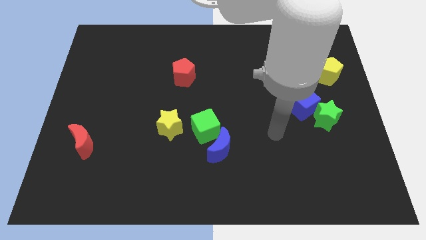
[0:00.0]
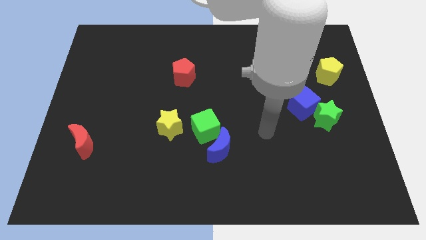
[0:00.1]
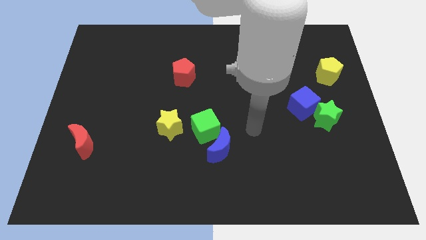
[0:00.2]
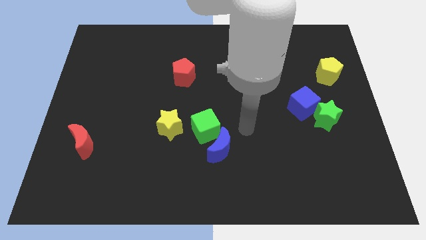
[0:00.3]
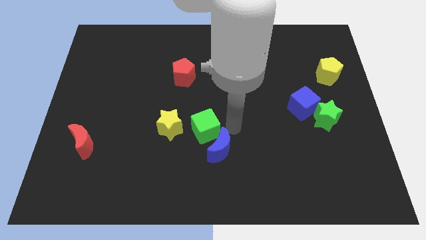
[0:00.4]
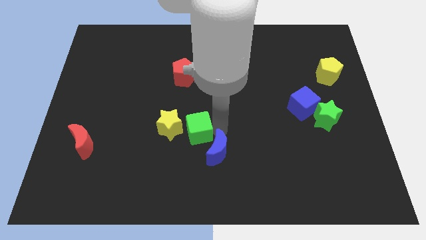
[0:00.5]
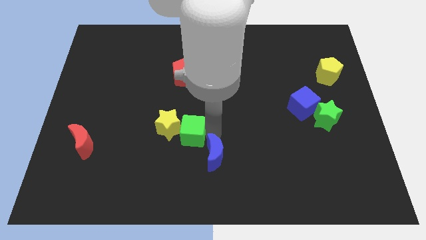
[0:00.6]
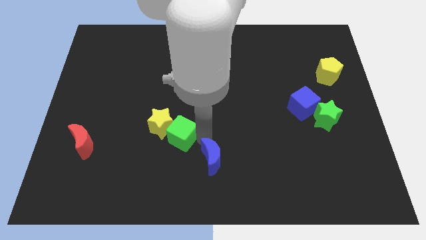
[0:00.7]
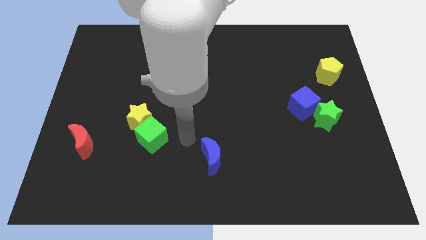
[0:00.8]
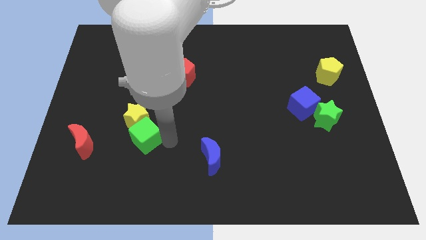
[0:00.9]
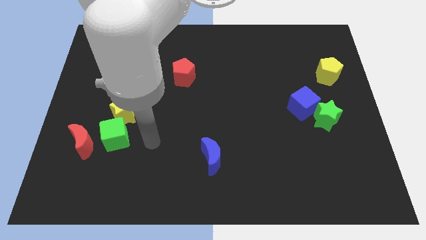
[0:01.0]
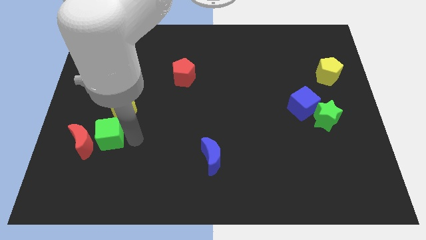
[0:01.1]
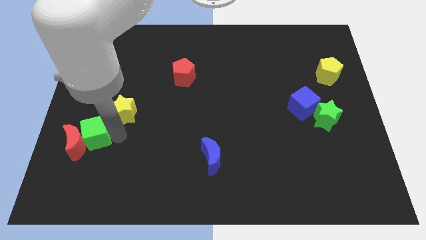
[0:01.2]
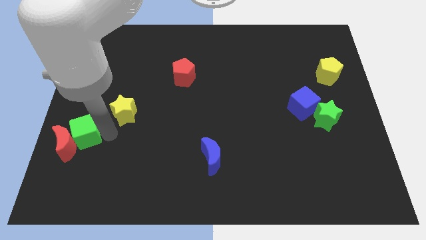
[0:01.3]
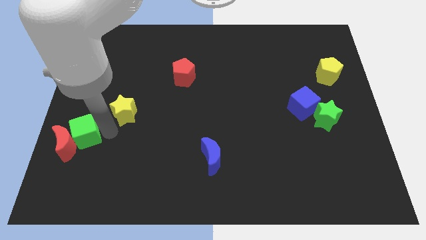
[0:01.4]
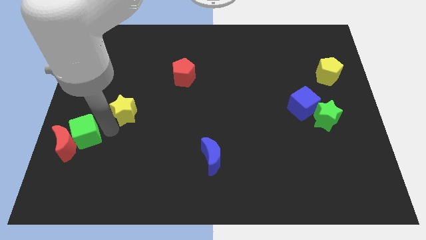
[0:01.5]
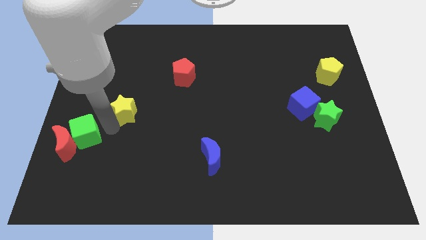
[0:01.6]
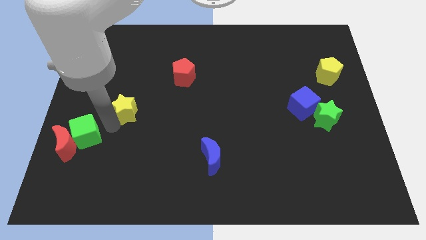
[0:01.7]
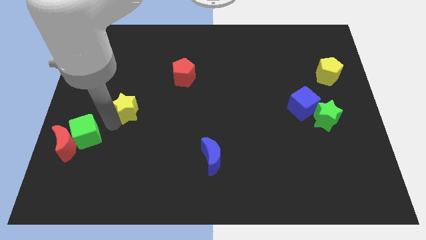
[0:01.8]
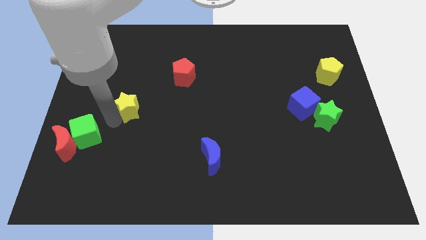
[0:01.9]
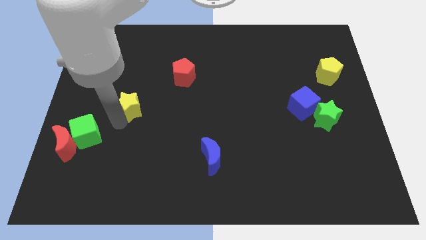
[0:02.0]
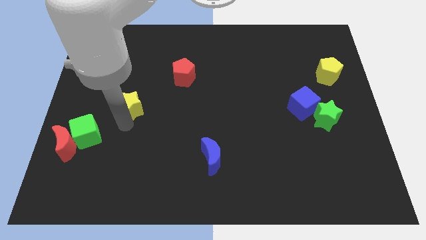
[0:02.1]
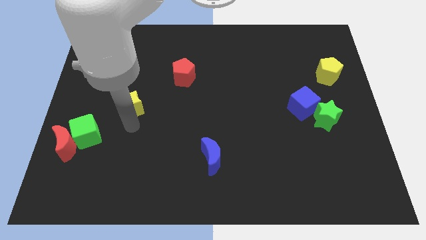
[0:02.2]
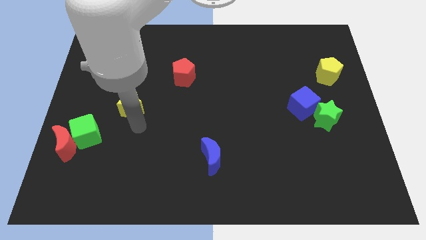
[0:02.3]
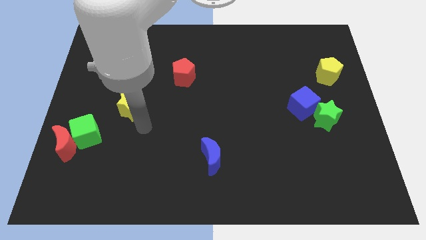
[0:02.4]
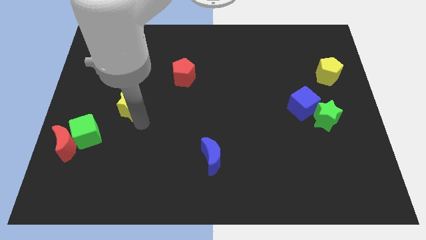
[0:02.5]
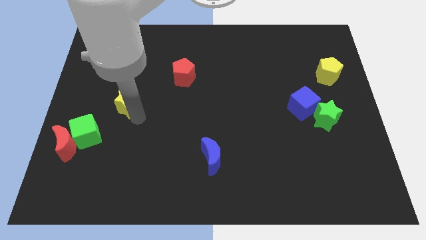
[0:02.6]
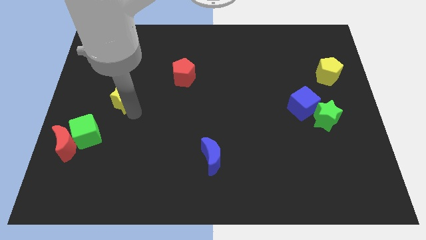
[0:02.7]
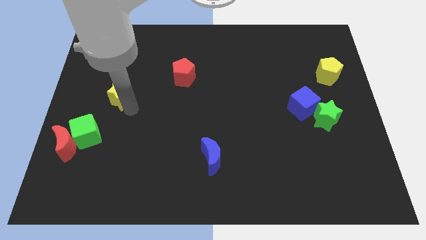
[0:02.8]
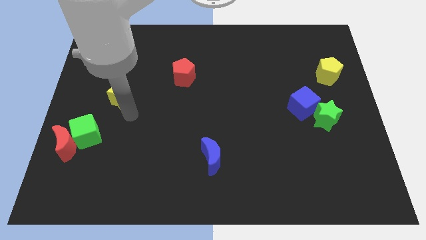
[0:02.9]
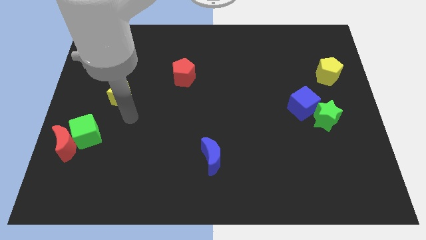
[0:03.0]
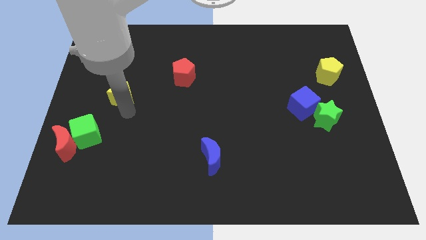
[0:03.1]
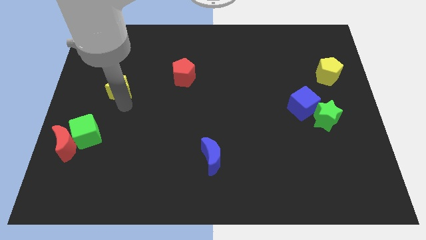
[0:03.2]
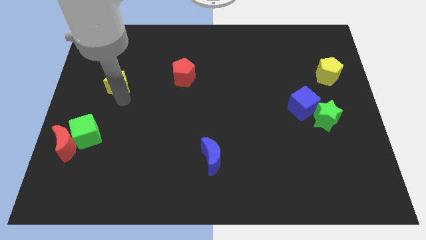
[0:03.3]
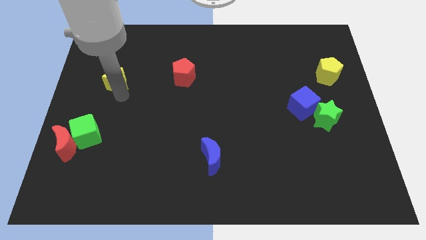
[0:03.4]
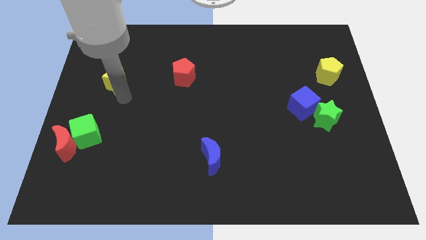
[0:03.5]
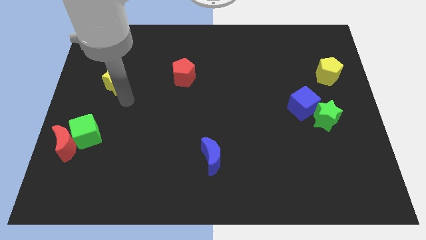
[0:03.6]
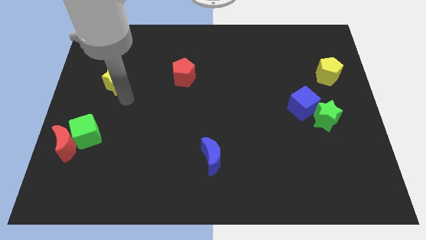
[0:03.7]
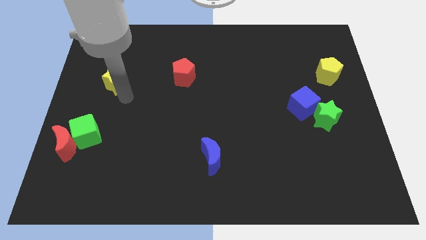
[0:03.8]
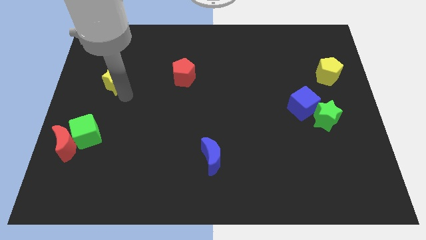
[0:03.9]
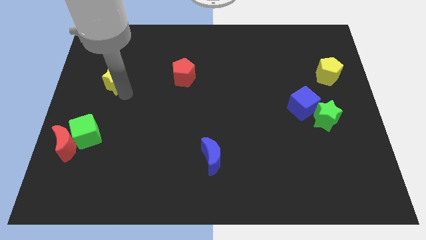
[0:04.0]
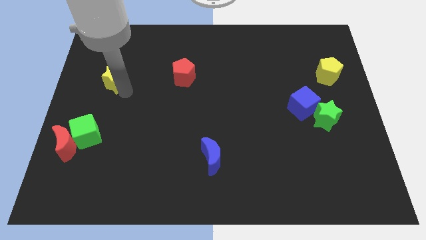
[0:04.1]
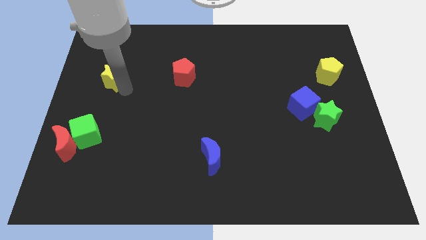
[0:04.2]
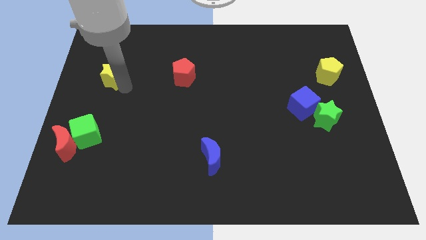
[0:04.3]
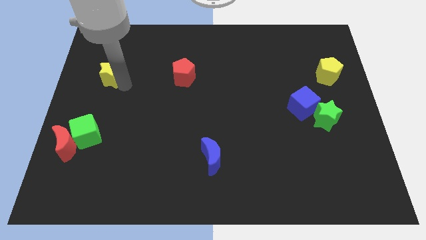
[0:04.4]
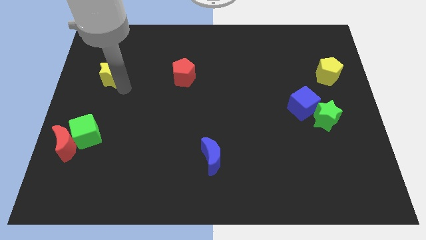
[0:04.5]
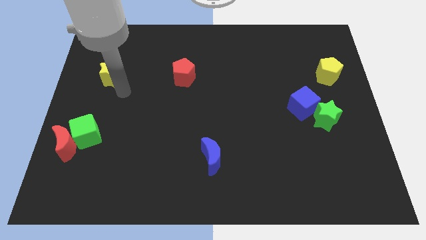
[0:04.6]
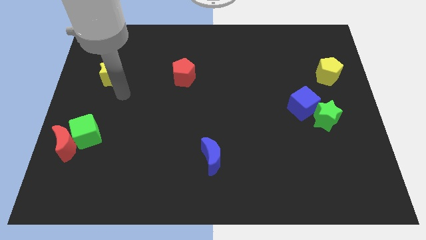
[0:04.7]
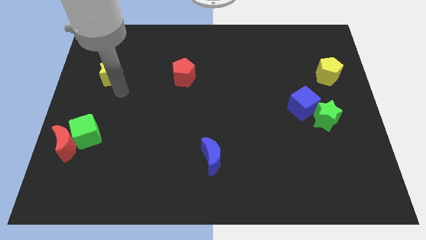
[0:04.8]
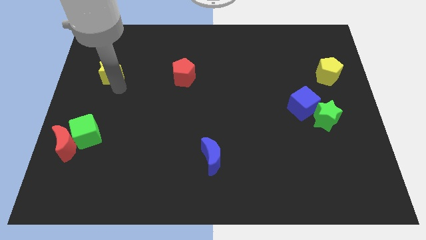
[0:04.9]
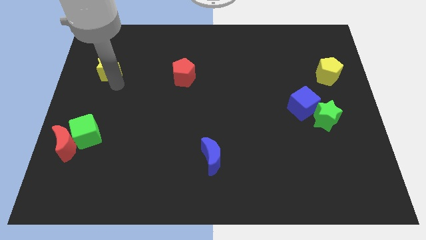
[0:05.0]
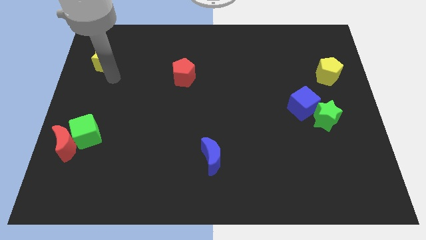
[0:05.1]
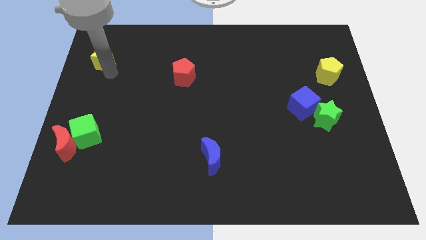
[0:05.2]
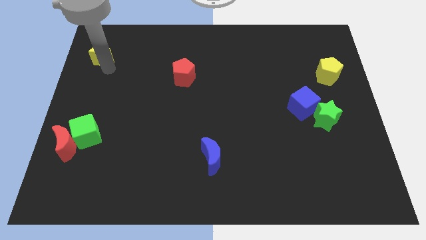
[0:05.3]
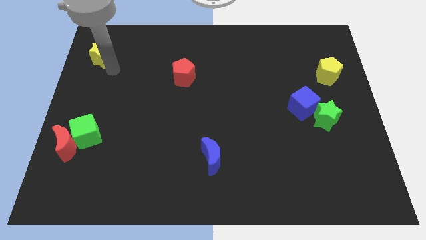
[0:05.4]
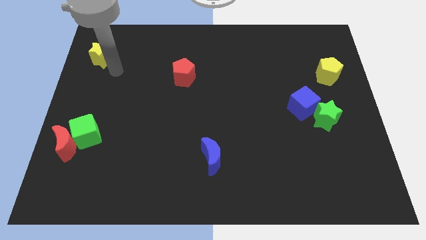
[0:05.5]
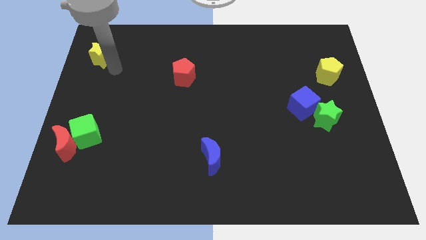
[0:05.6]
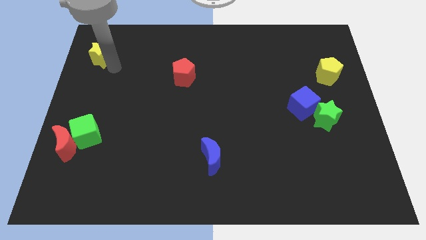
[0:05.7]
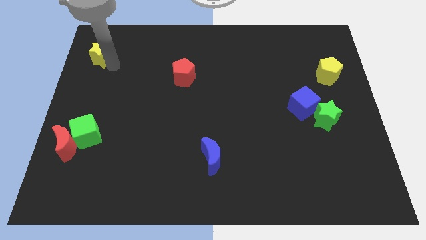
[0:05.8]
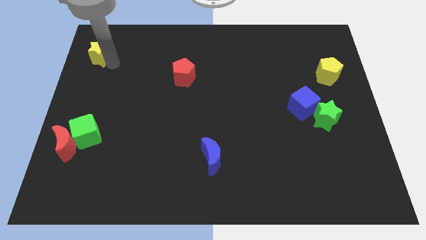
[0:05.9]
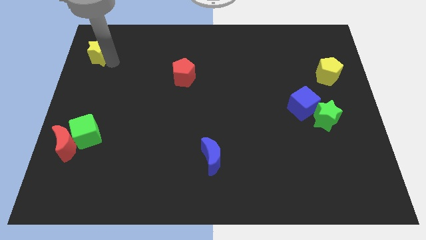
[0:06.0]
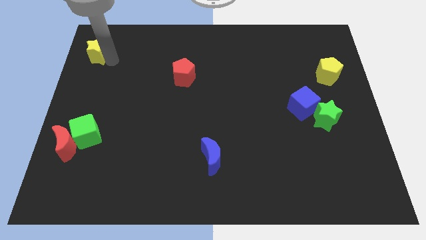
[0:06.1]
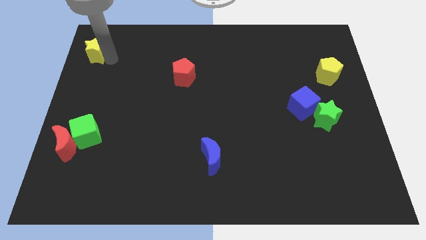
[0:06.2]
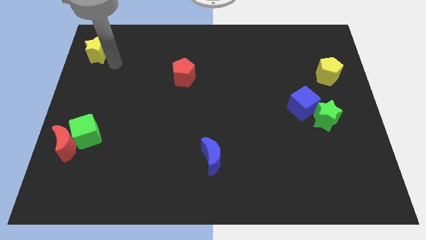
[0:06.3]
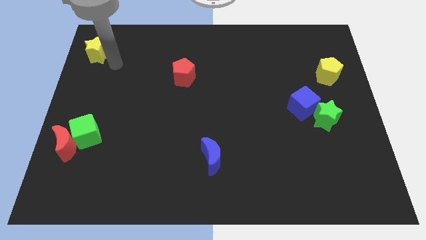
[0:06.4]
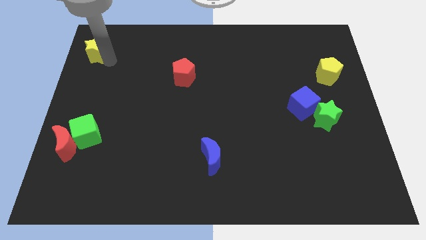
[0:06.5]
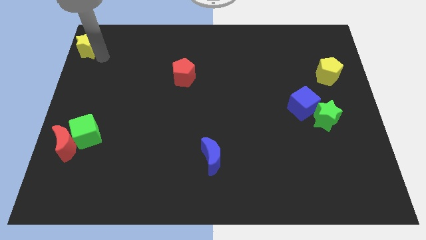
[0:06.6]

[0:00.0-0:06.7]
put the yellow star to the top left of the board
